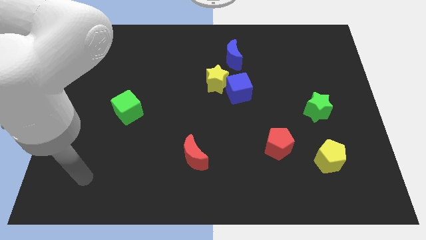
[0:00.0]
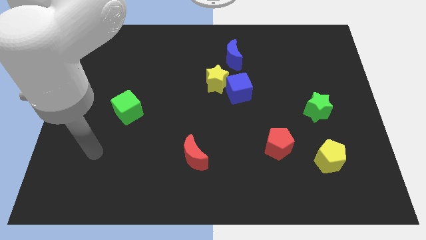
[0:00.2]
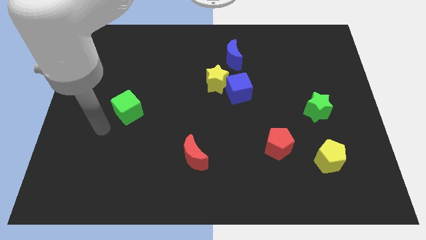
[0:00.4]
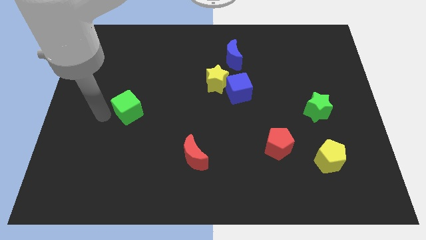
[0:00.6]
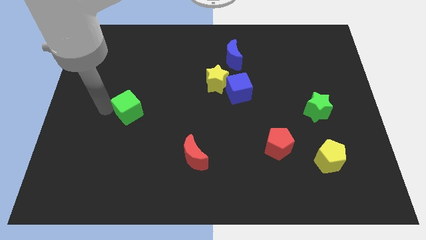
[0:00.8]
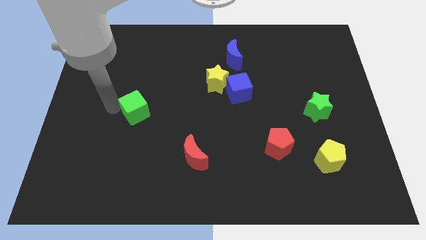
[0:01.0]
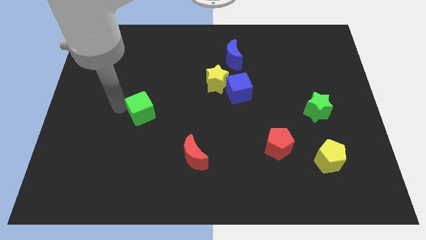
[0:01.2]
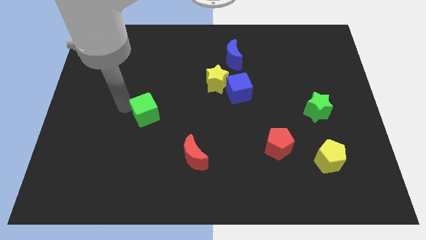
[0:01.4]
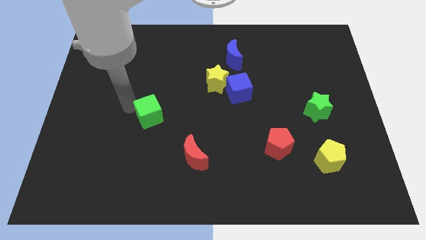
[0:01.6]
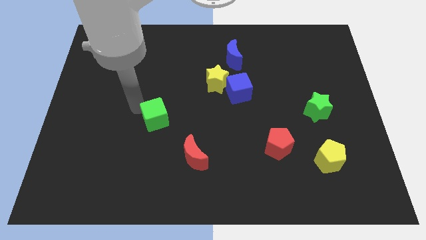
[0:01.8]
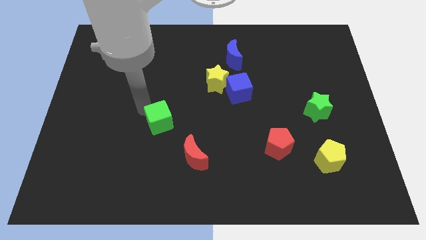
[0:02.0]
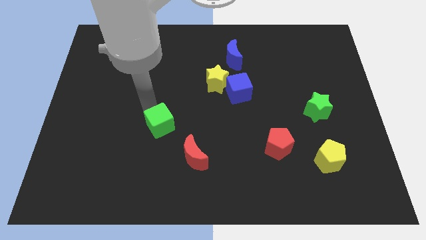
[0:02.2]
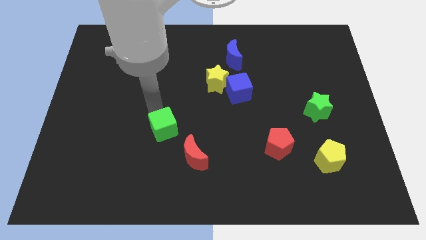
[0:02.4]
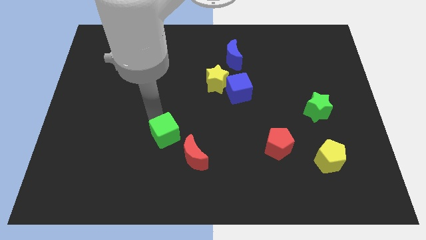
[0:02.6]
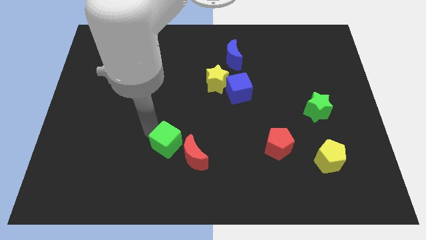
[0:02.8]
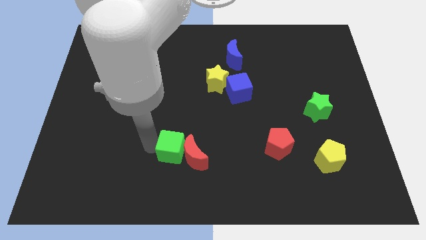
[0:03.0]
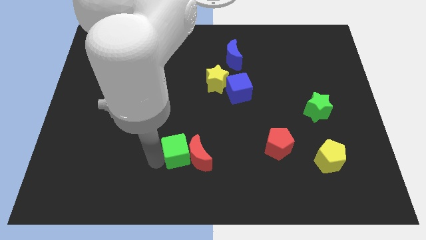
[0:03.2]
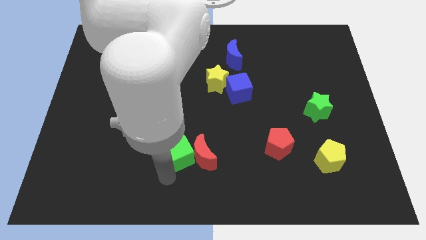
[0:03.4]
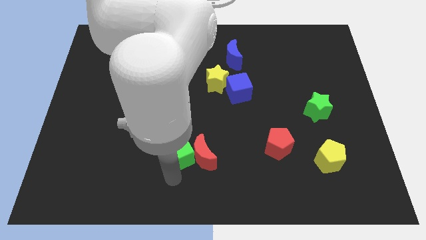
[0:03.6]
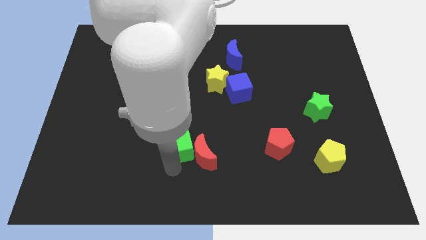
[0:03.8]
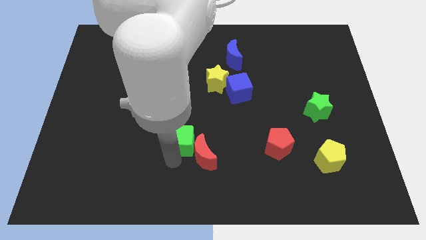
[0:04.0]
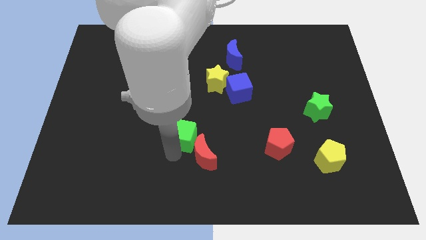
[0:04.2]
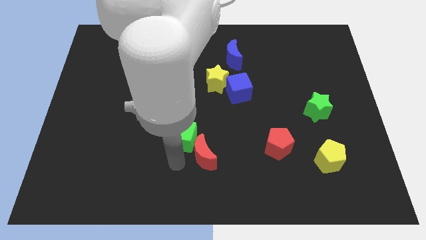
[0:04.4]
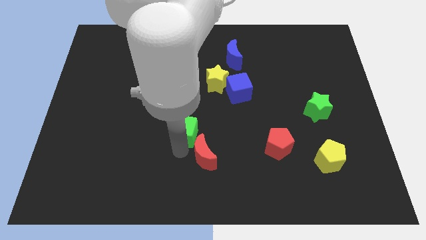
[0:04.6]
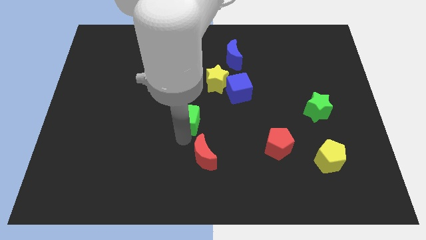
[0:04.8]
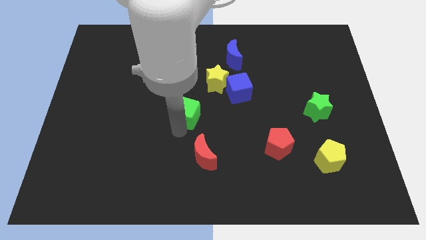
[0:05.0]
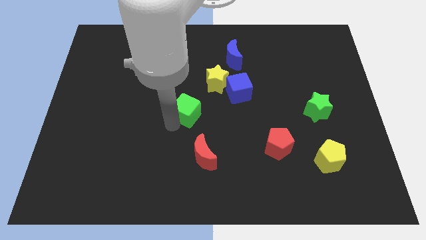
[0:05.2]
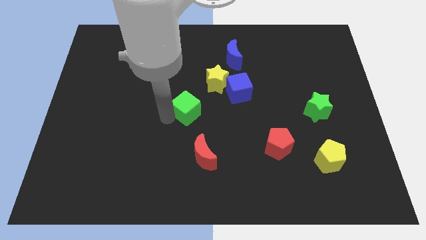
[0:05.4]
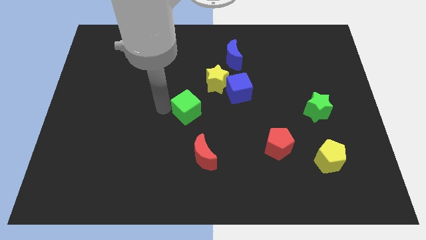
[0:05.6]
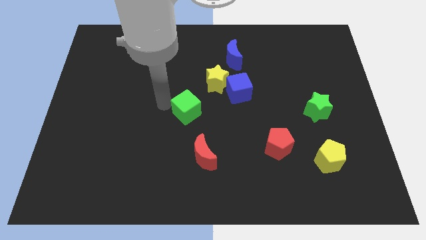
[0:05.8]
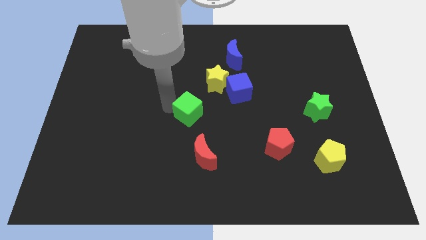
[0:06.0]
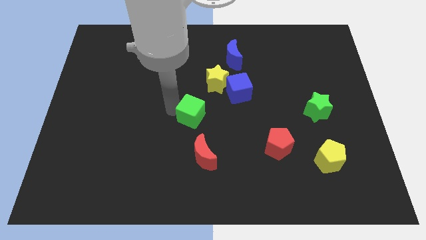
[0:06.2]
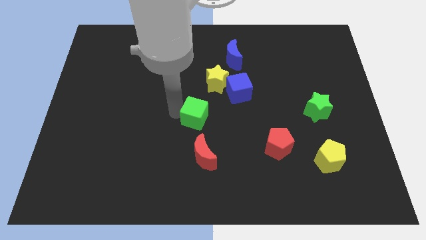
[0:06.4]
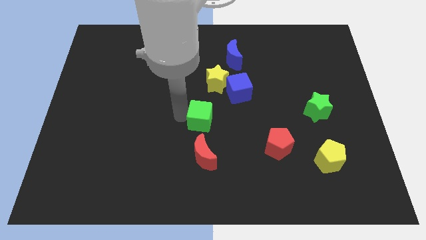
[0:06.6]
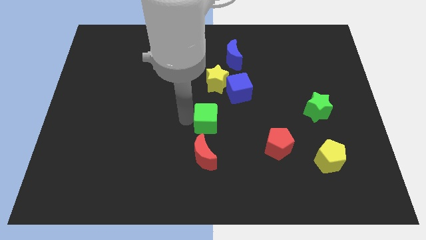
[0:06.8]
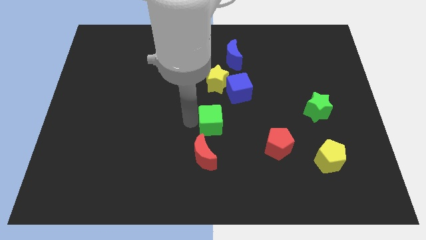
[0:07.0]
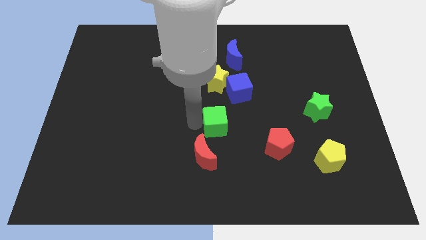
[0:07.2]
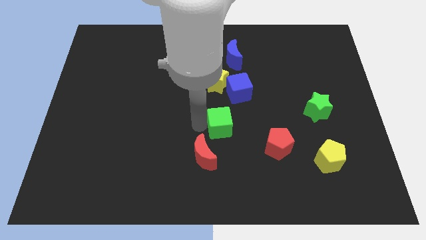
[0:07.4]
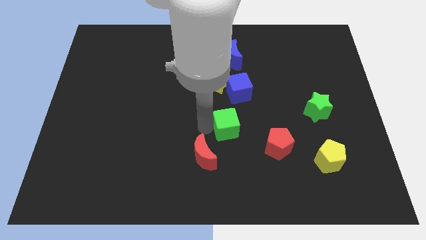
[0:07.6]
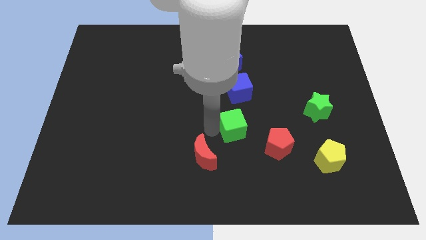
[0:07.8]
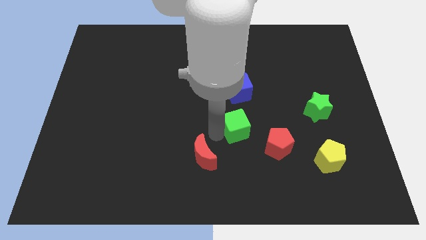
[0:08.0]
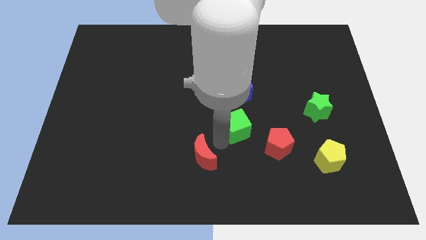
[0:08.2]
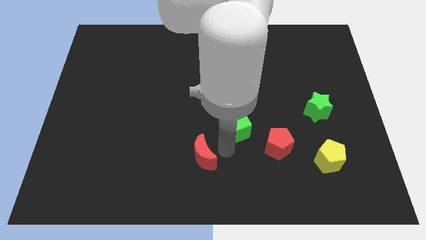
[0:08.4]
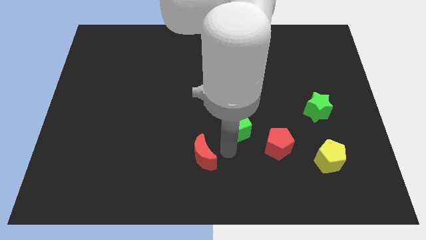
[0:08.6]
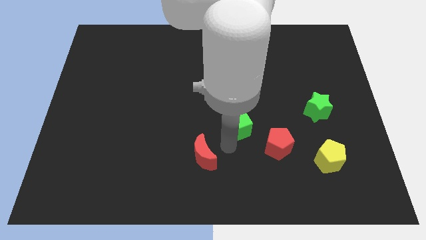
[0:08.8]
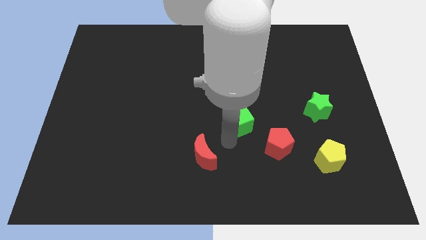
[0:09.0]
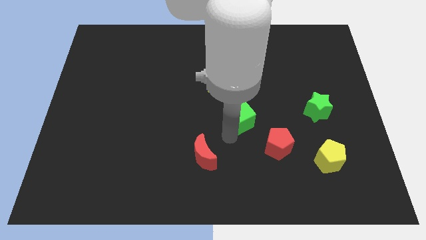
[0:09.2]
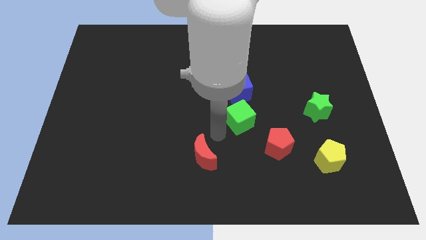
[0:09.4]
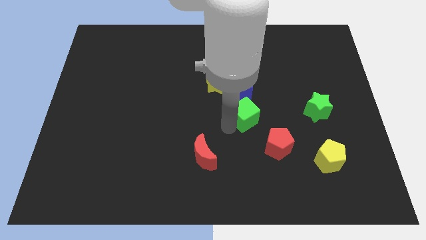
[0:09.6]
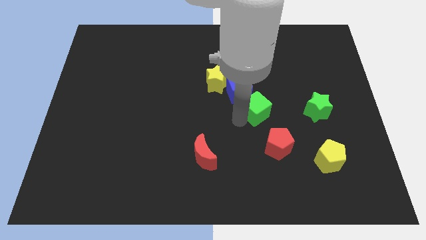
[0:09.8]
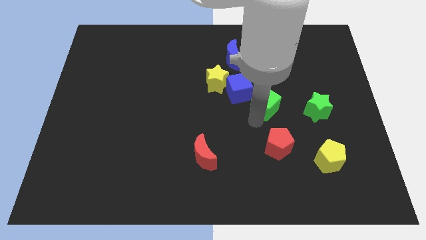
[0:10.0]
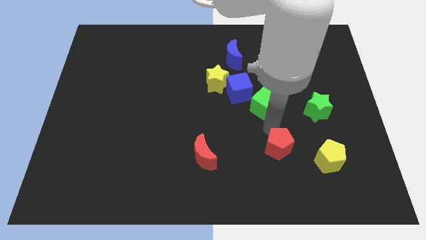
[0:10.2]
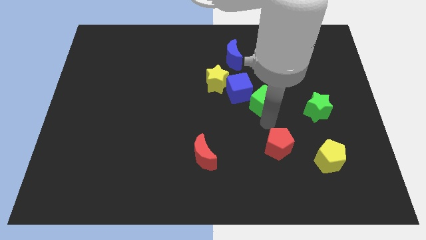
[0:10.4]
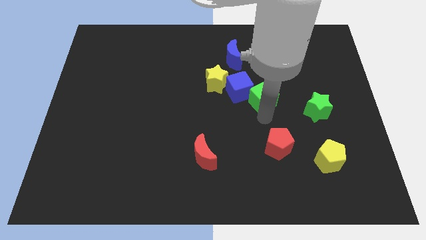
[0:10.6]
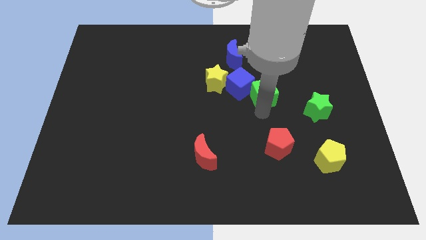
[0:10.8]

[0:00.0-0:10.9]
move the green cube just right of the yellow star

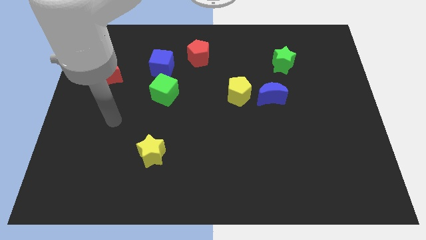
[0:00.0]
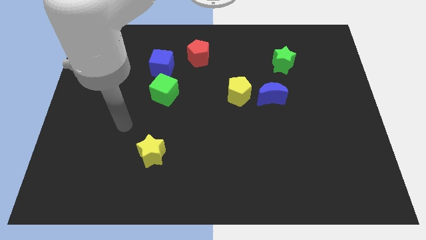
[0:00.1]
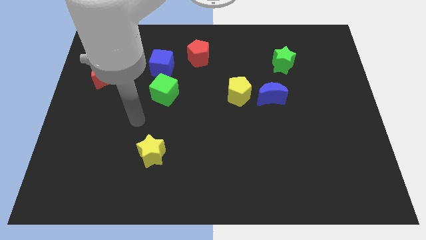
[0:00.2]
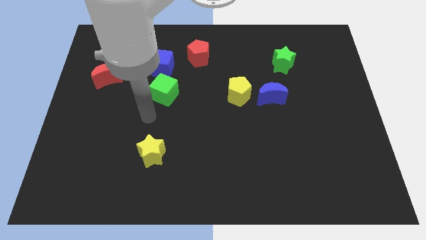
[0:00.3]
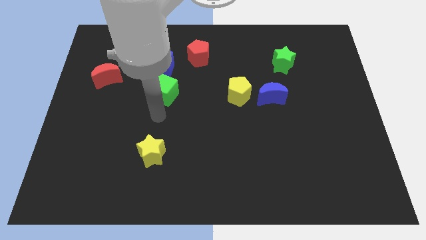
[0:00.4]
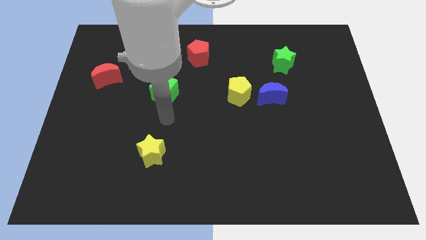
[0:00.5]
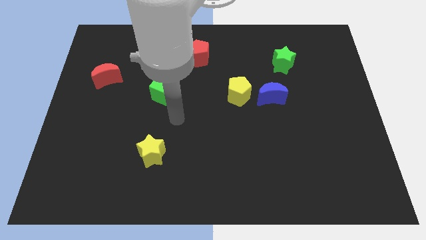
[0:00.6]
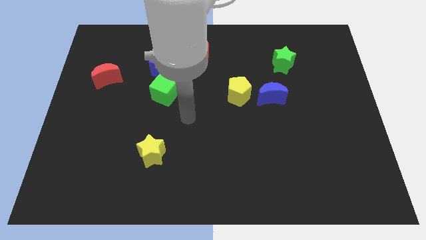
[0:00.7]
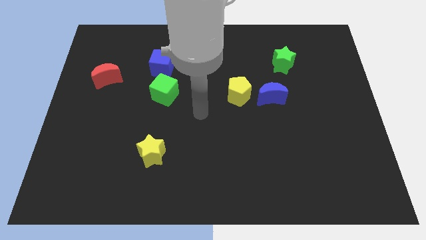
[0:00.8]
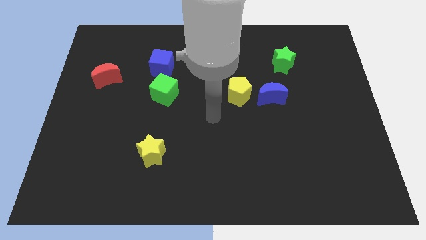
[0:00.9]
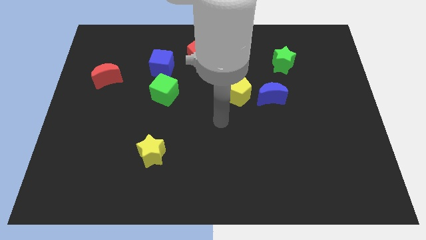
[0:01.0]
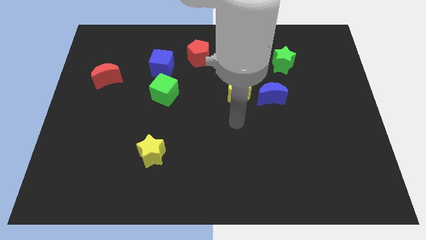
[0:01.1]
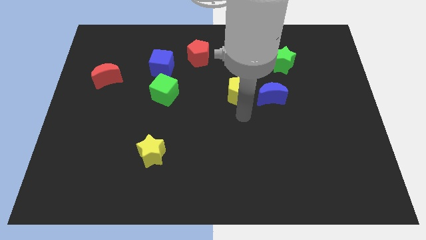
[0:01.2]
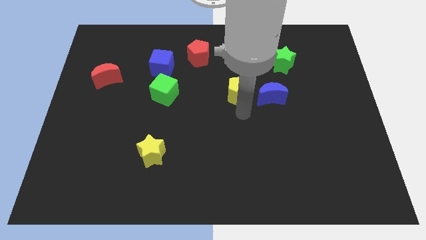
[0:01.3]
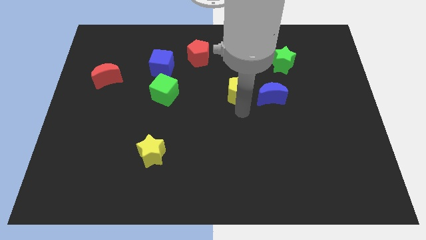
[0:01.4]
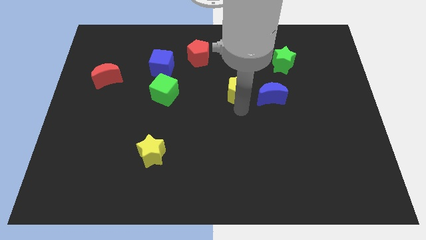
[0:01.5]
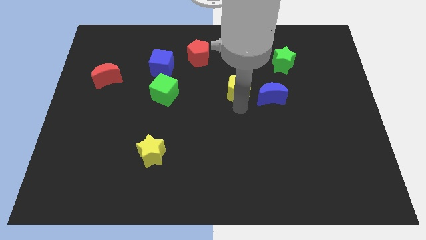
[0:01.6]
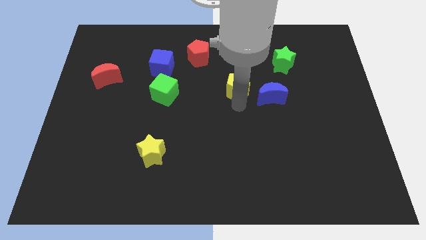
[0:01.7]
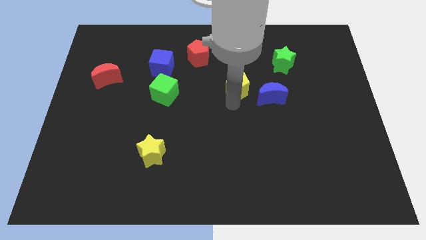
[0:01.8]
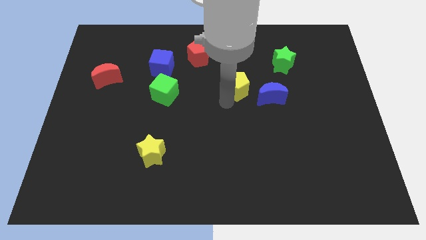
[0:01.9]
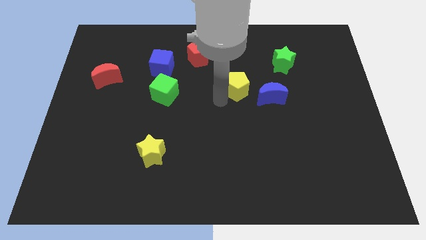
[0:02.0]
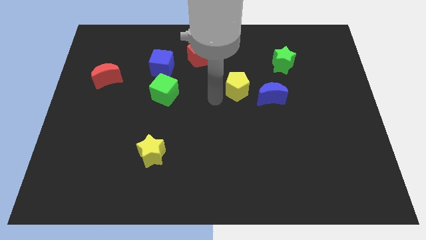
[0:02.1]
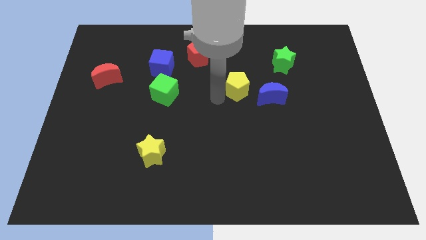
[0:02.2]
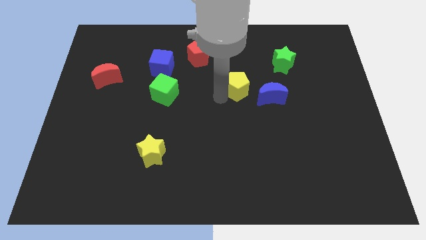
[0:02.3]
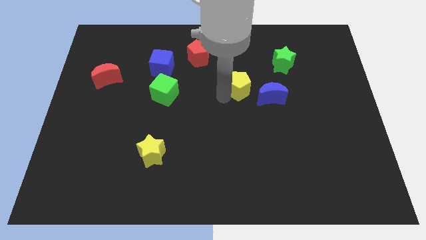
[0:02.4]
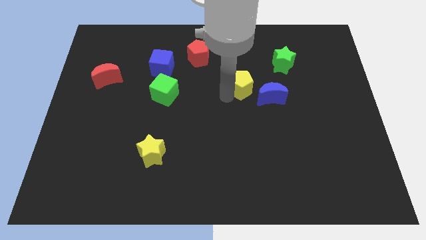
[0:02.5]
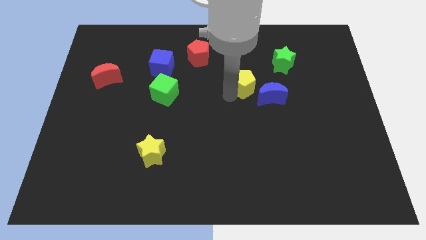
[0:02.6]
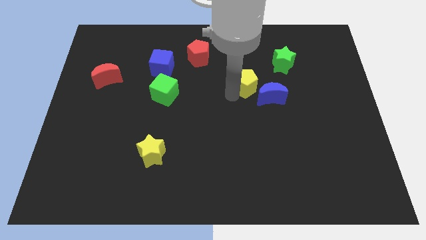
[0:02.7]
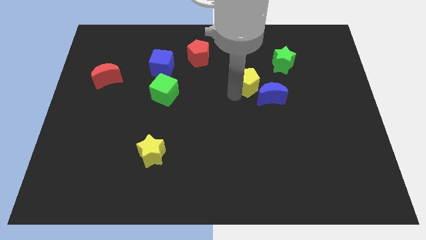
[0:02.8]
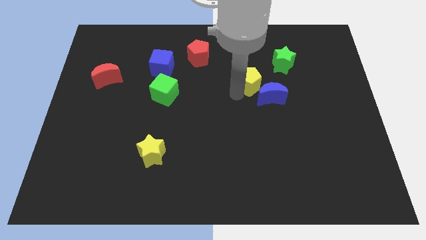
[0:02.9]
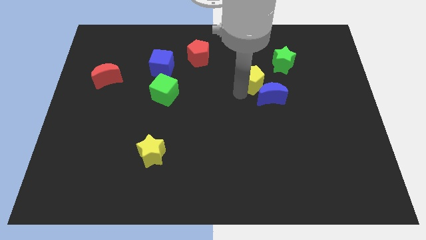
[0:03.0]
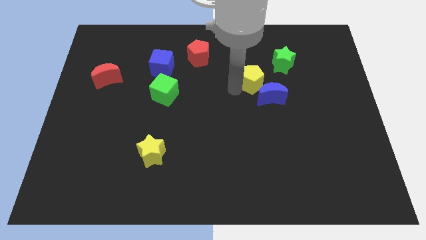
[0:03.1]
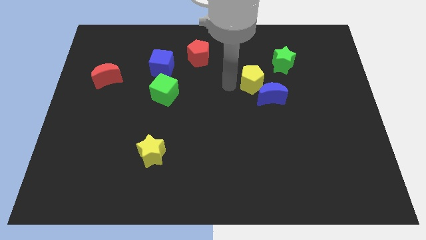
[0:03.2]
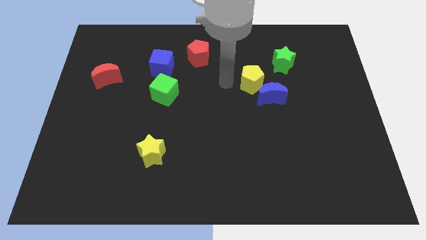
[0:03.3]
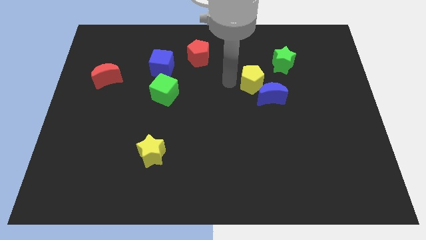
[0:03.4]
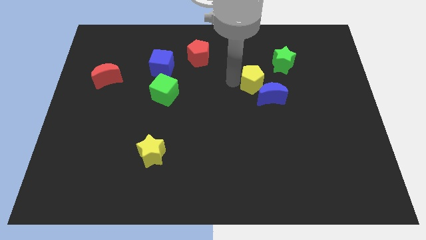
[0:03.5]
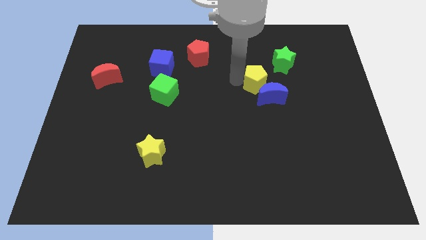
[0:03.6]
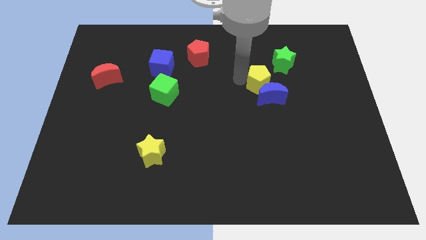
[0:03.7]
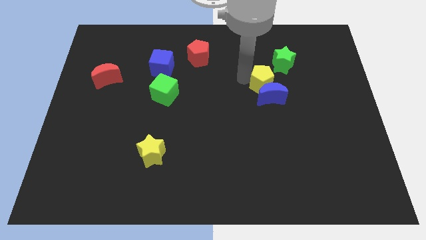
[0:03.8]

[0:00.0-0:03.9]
push the yellow pentagon to the top right side of the blue moon
